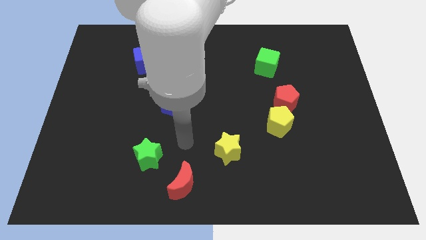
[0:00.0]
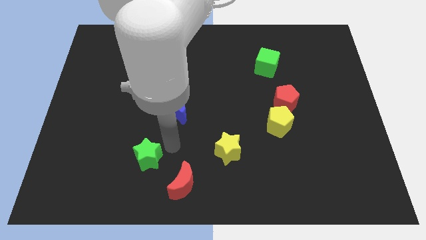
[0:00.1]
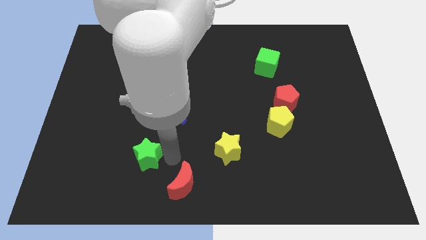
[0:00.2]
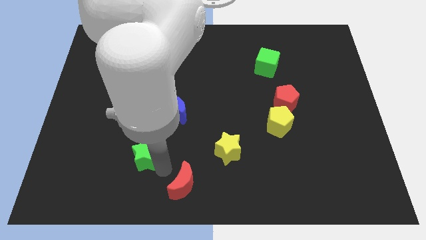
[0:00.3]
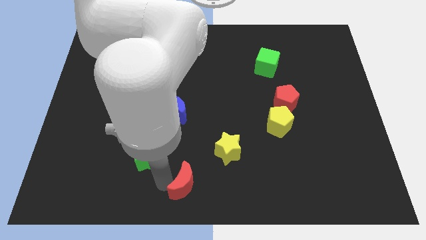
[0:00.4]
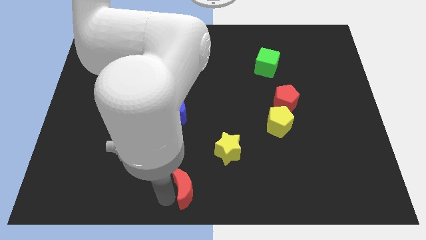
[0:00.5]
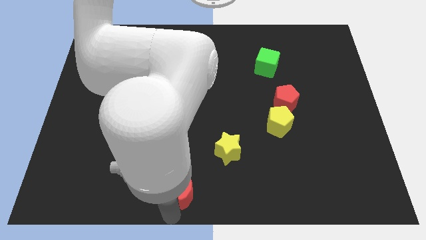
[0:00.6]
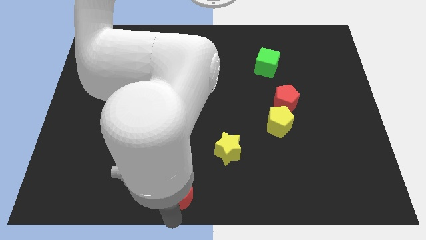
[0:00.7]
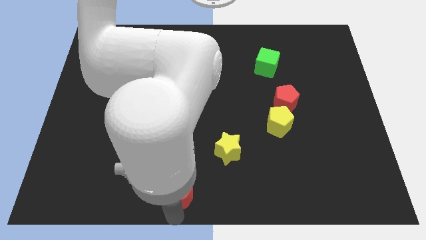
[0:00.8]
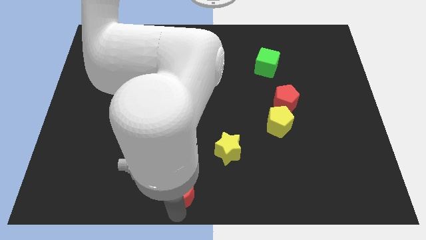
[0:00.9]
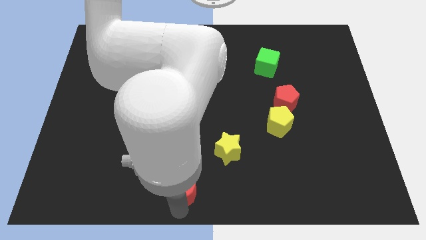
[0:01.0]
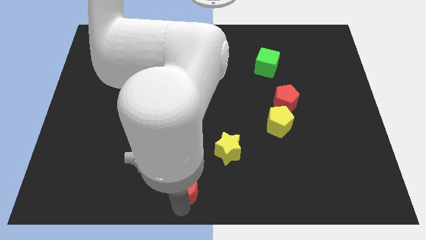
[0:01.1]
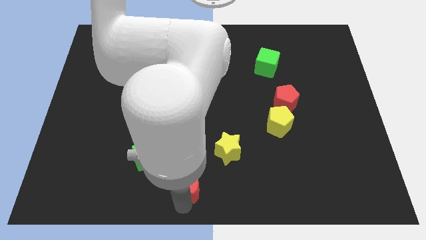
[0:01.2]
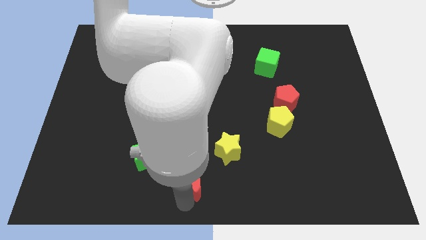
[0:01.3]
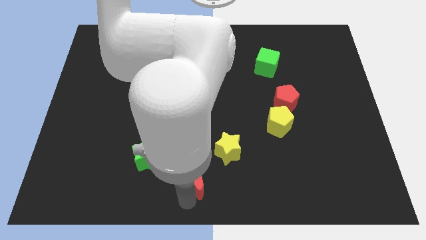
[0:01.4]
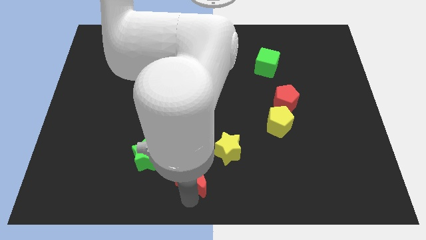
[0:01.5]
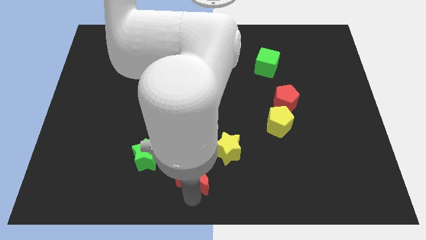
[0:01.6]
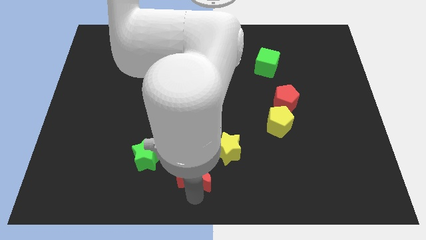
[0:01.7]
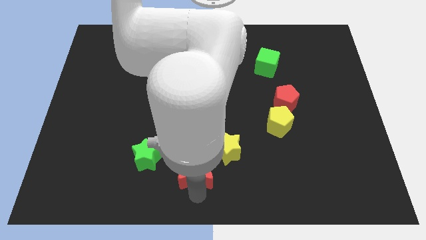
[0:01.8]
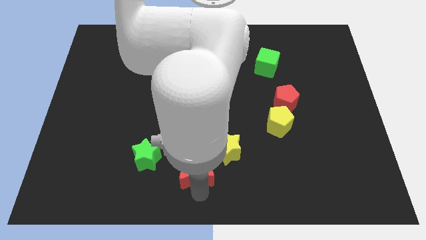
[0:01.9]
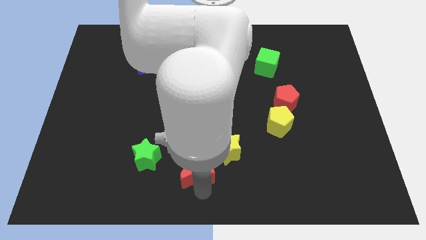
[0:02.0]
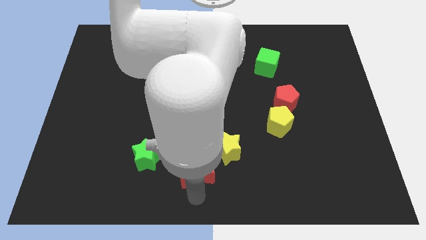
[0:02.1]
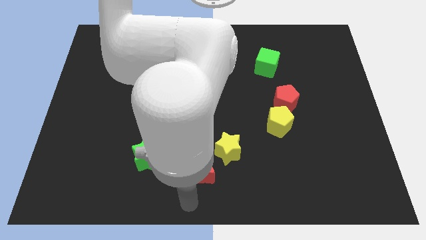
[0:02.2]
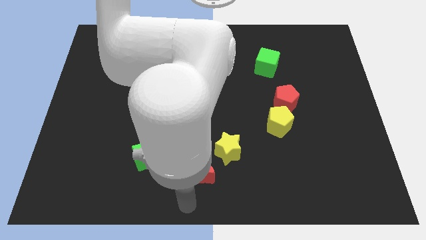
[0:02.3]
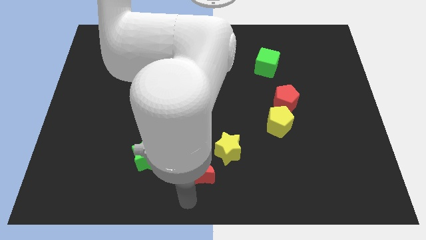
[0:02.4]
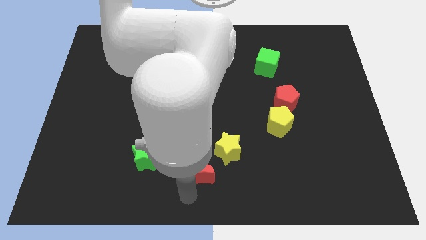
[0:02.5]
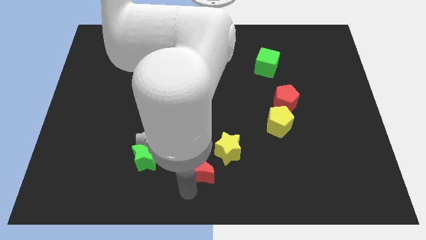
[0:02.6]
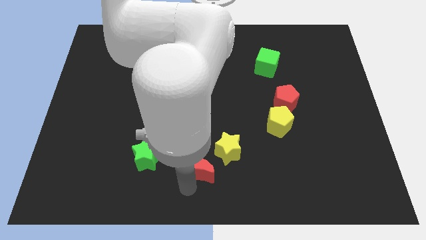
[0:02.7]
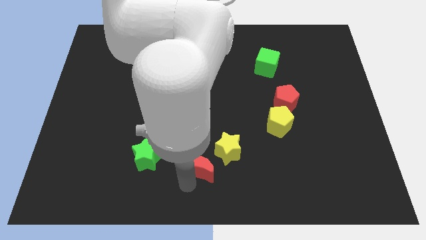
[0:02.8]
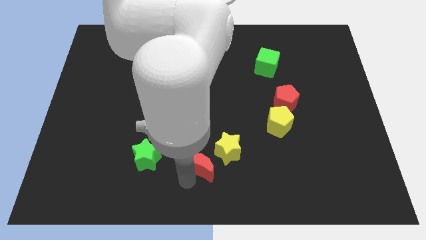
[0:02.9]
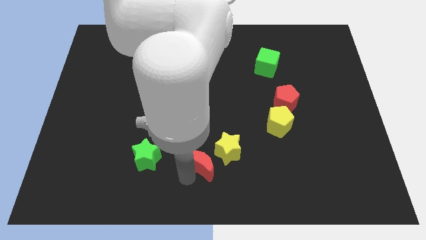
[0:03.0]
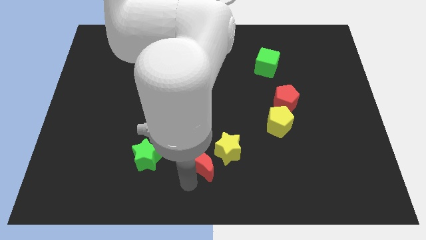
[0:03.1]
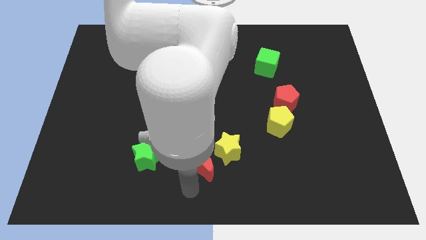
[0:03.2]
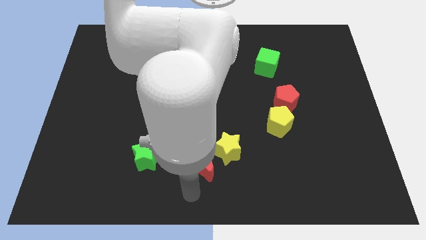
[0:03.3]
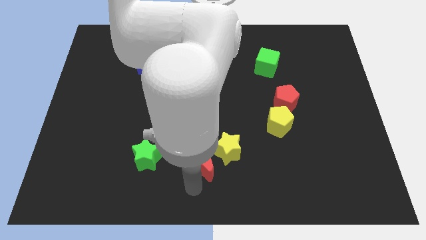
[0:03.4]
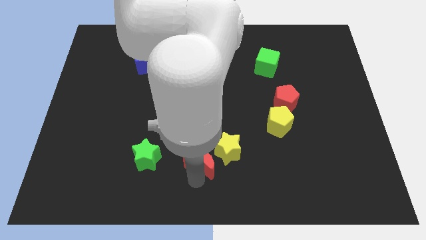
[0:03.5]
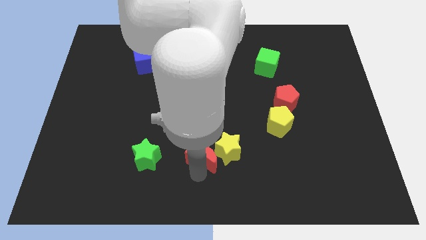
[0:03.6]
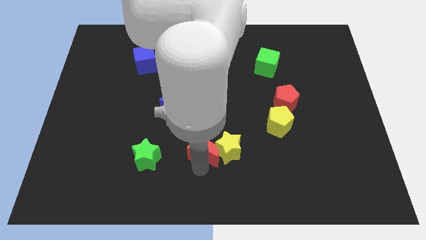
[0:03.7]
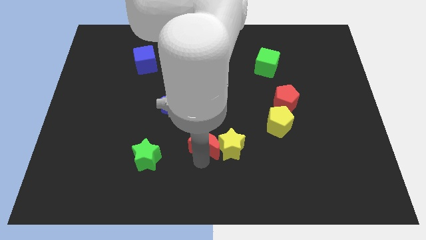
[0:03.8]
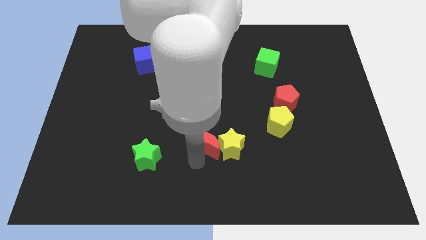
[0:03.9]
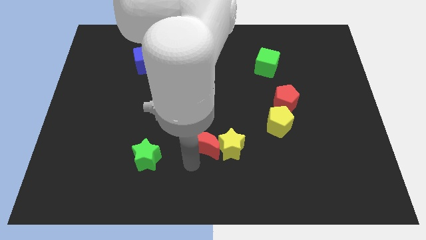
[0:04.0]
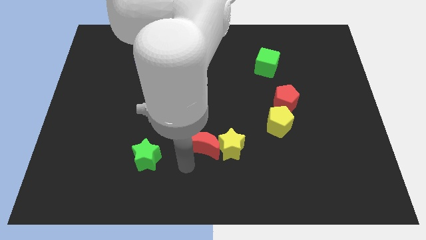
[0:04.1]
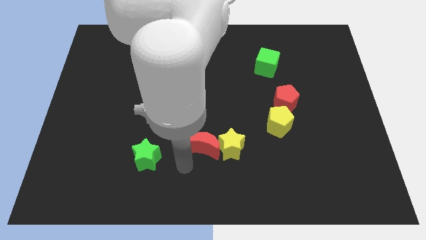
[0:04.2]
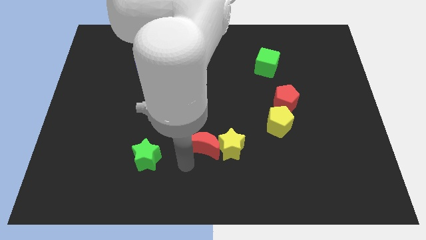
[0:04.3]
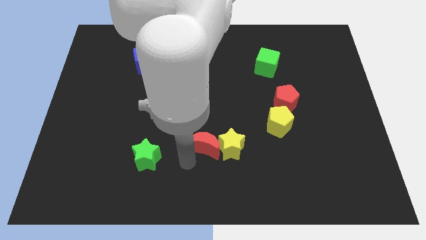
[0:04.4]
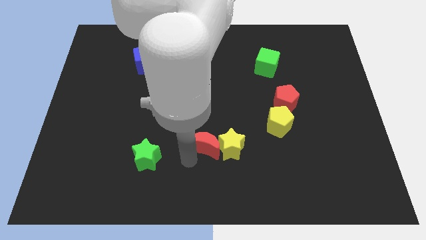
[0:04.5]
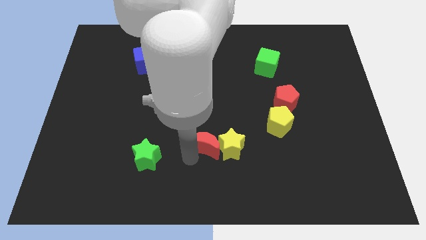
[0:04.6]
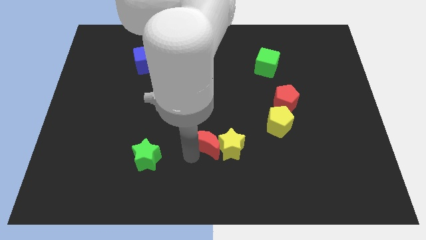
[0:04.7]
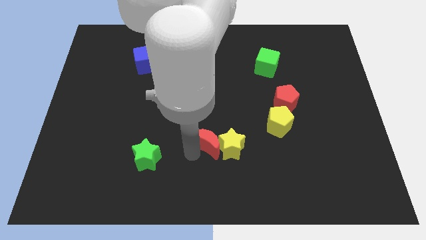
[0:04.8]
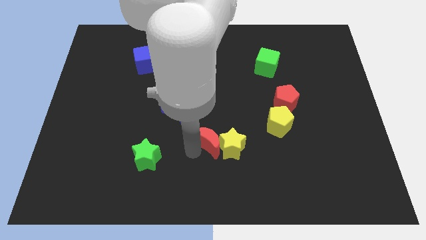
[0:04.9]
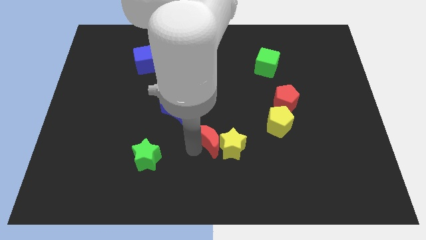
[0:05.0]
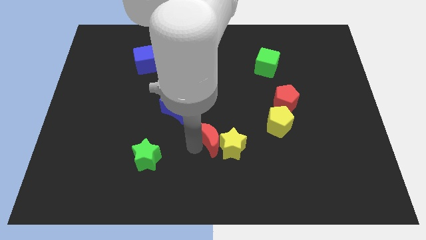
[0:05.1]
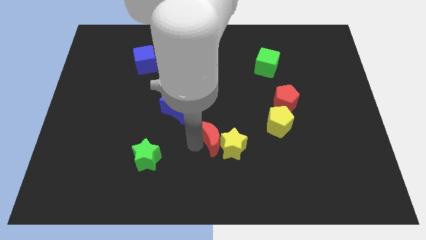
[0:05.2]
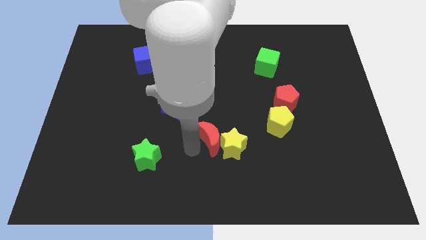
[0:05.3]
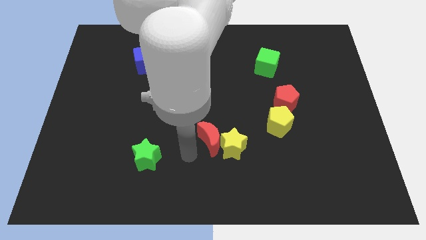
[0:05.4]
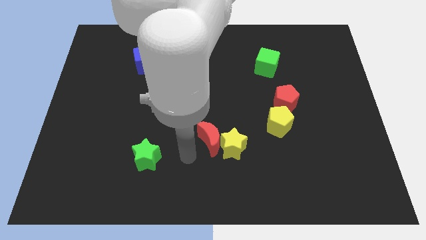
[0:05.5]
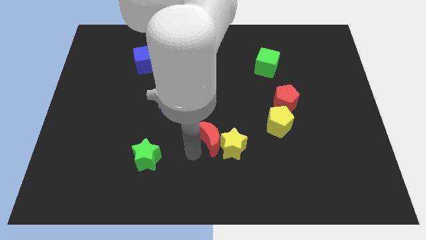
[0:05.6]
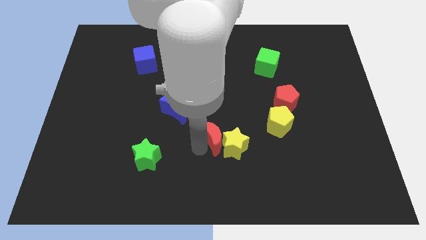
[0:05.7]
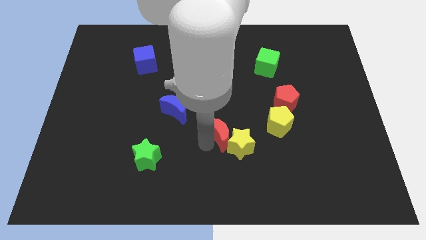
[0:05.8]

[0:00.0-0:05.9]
put the red moon just left of the yellow pentagon

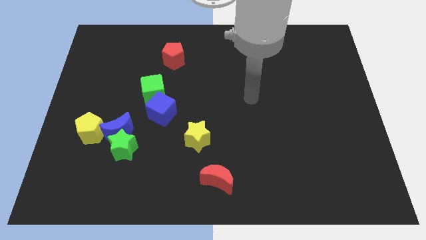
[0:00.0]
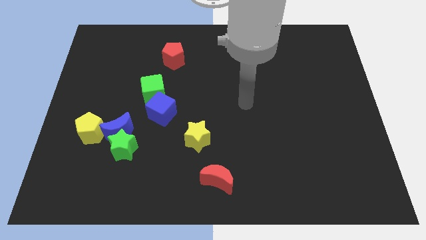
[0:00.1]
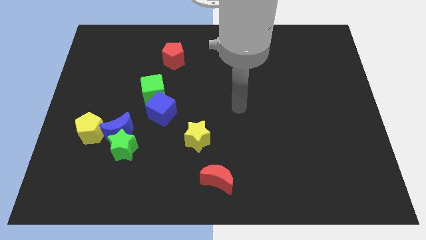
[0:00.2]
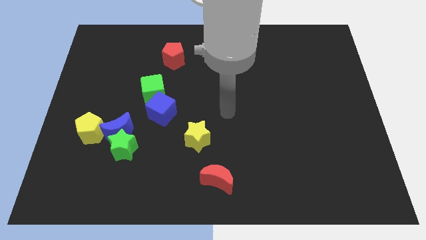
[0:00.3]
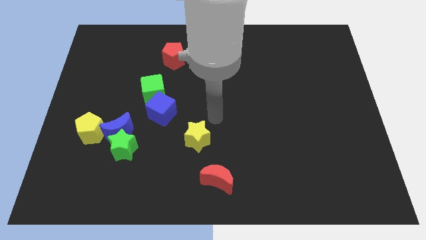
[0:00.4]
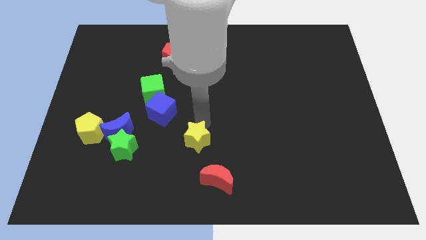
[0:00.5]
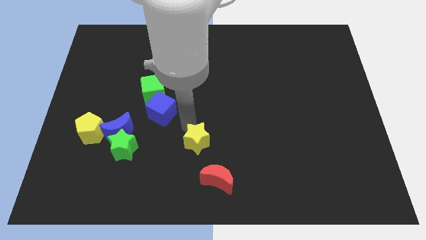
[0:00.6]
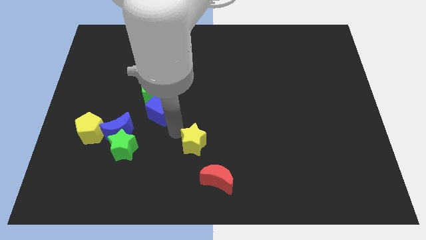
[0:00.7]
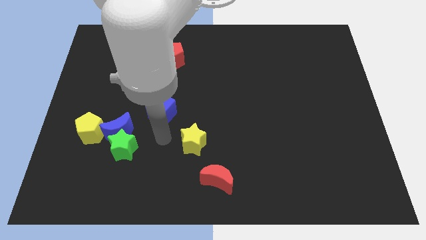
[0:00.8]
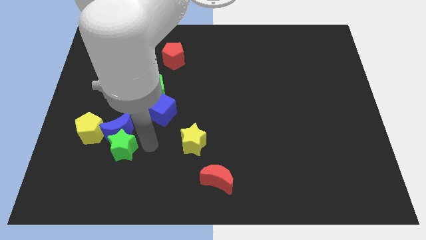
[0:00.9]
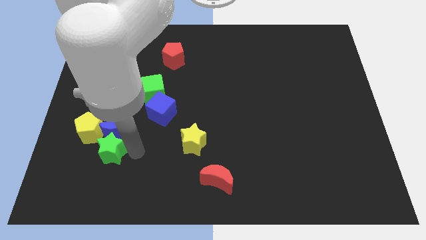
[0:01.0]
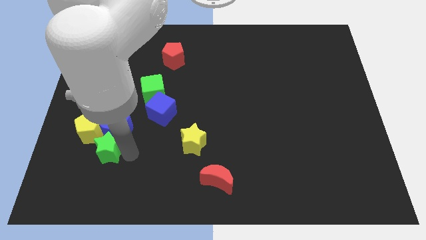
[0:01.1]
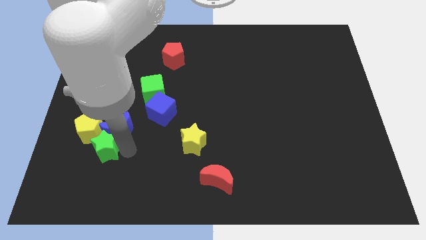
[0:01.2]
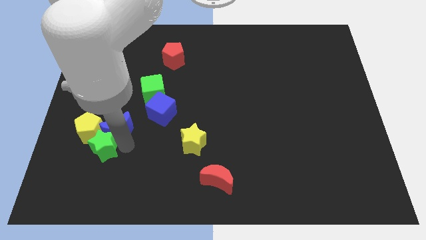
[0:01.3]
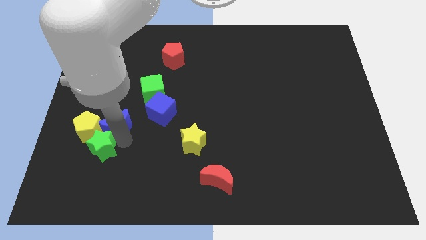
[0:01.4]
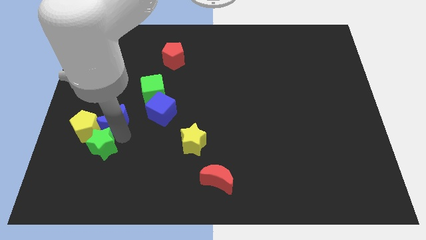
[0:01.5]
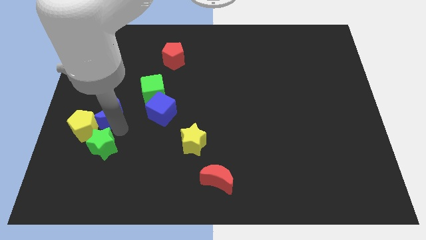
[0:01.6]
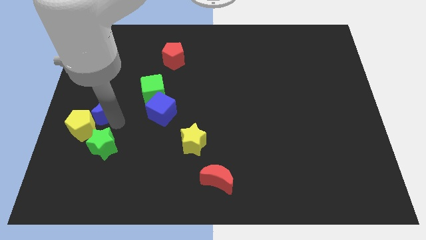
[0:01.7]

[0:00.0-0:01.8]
slide the blue moon to the top of the yellow pentagon

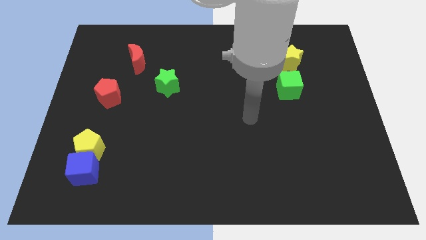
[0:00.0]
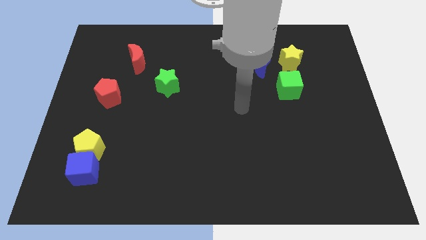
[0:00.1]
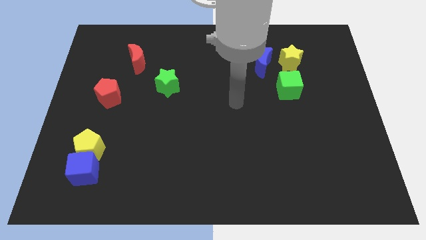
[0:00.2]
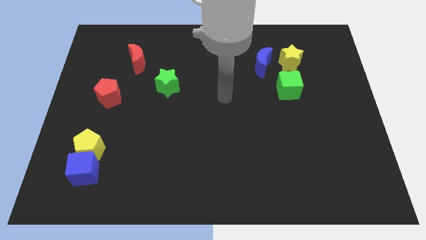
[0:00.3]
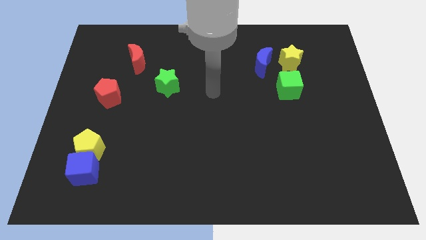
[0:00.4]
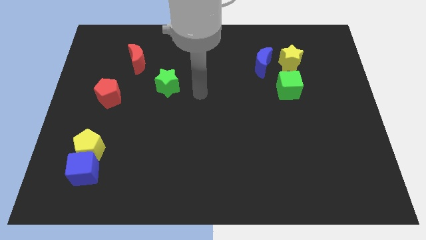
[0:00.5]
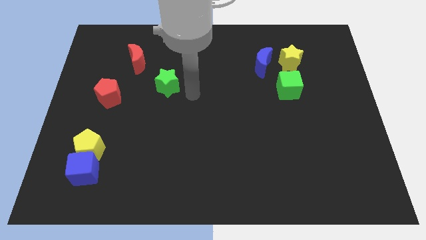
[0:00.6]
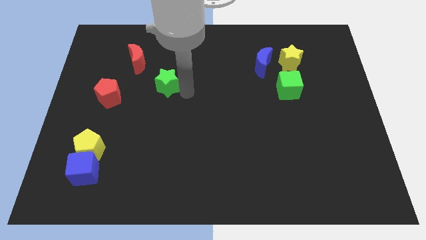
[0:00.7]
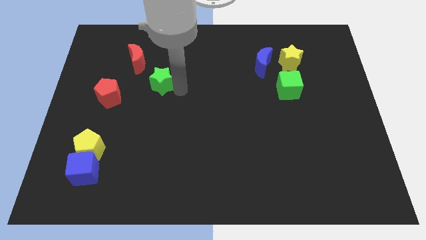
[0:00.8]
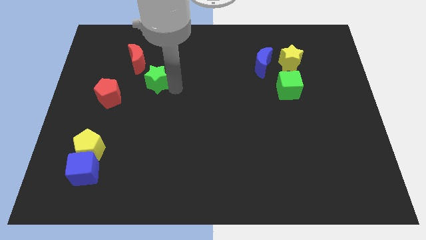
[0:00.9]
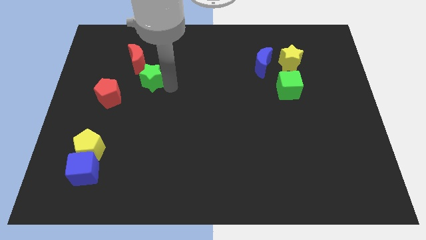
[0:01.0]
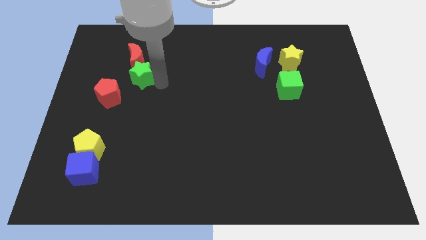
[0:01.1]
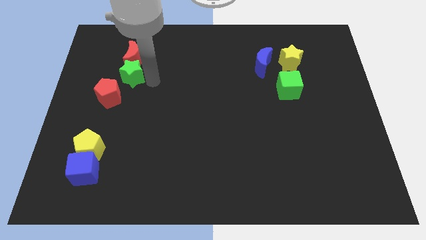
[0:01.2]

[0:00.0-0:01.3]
push the green star above the red pentagon
